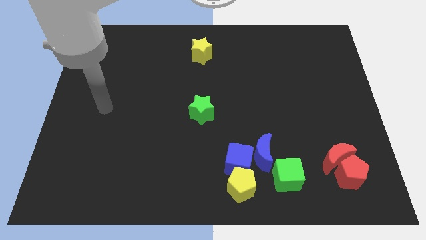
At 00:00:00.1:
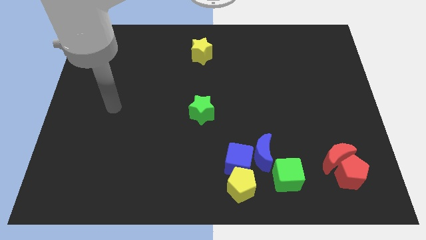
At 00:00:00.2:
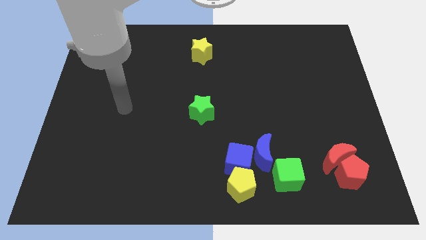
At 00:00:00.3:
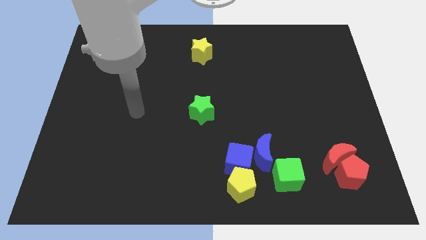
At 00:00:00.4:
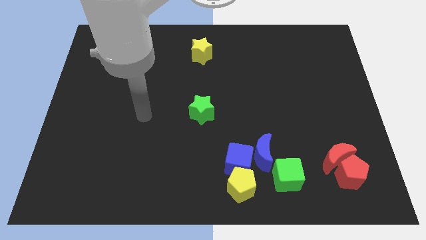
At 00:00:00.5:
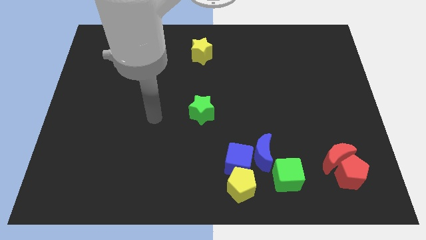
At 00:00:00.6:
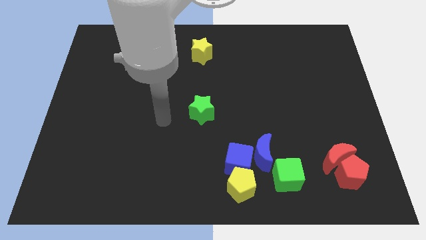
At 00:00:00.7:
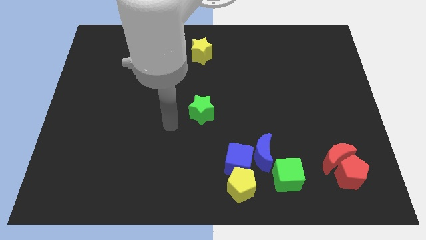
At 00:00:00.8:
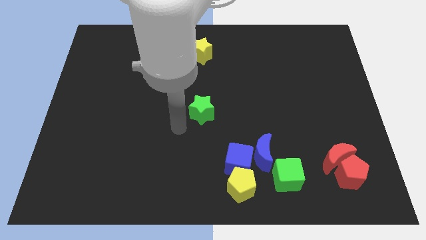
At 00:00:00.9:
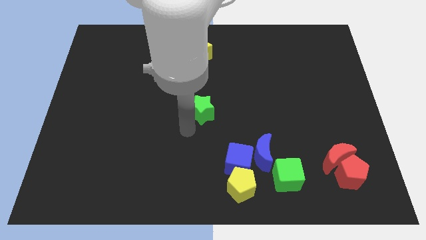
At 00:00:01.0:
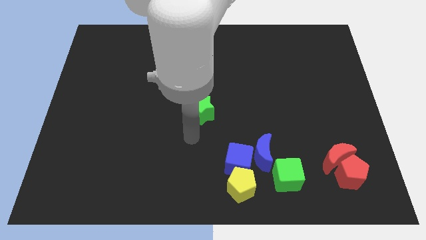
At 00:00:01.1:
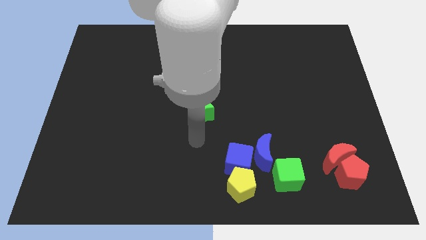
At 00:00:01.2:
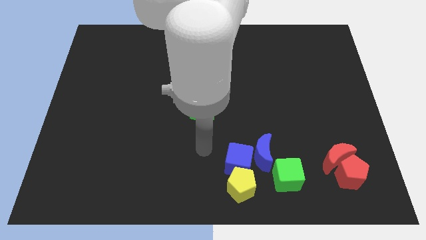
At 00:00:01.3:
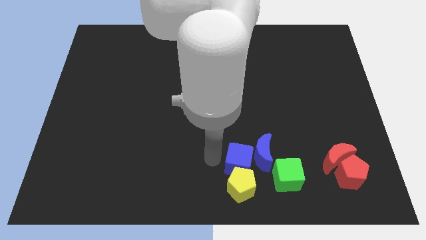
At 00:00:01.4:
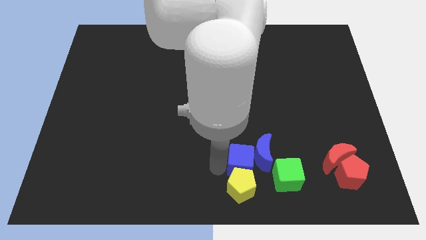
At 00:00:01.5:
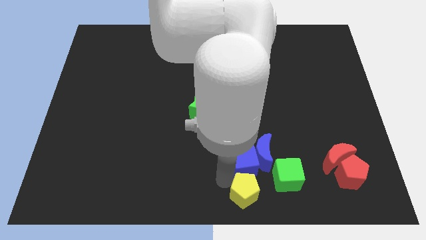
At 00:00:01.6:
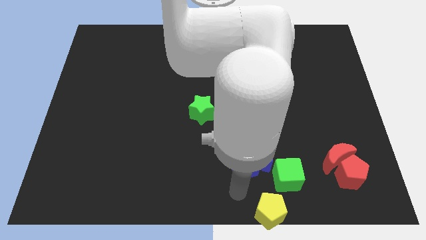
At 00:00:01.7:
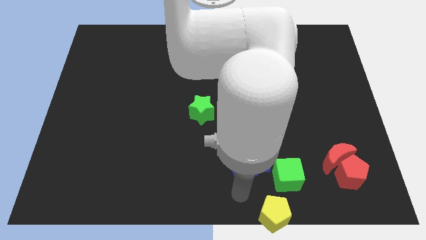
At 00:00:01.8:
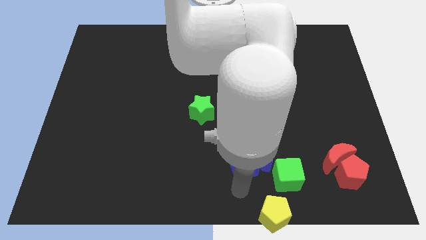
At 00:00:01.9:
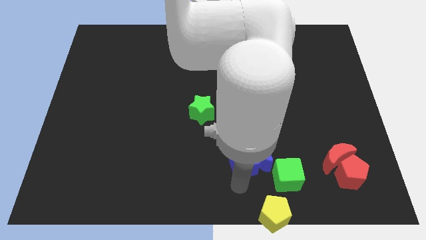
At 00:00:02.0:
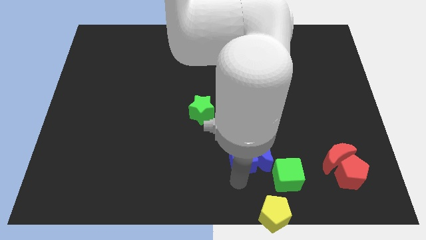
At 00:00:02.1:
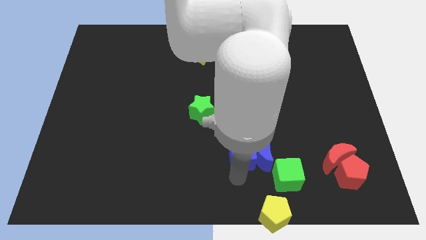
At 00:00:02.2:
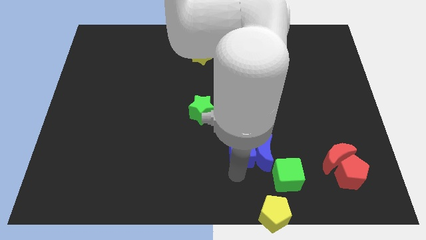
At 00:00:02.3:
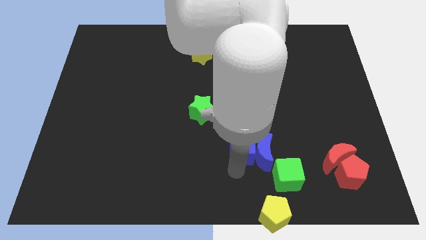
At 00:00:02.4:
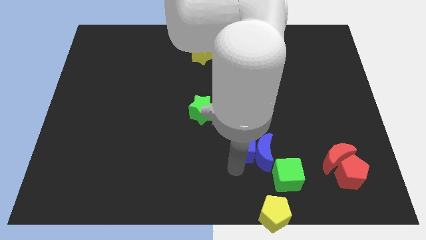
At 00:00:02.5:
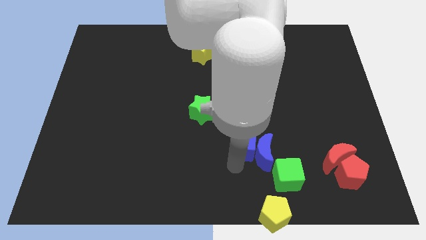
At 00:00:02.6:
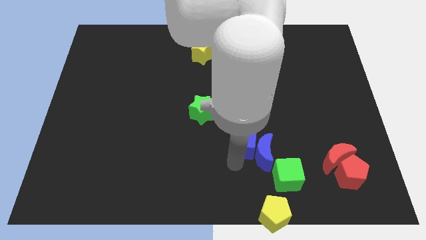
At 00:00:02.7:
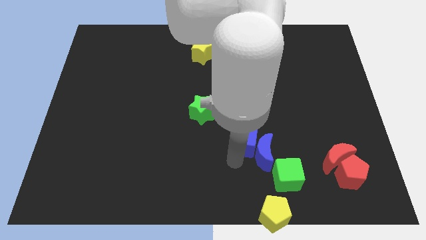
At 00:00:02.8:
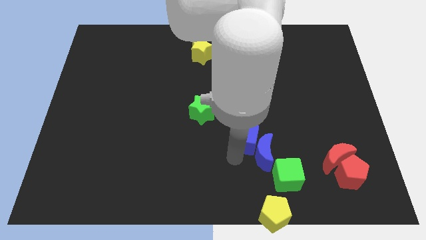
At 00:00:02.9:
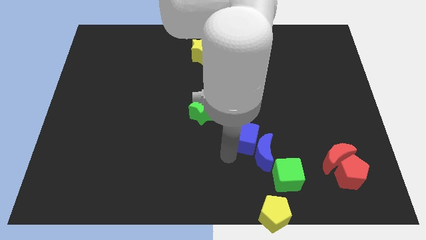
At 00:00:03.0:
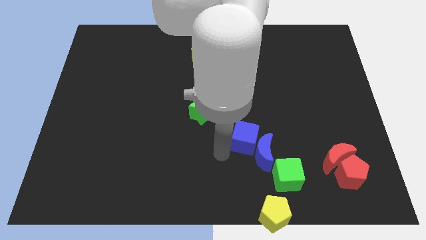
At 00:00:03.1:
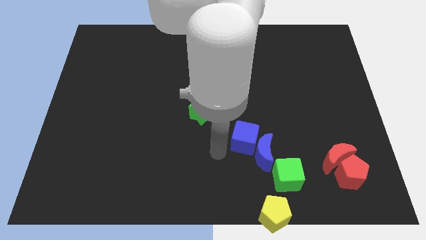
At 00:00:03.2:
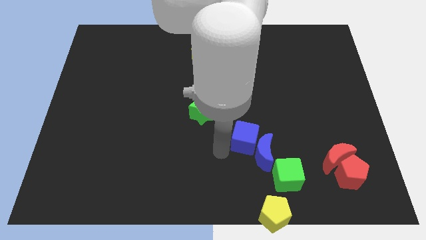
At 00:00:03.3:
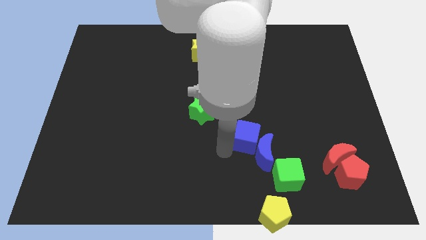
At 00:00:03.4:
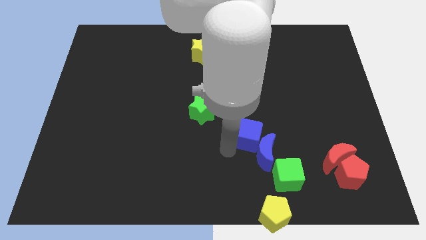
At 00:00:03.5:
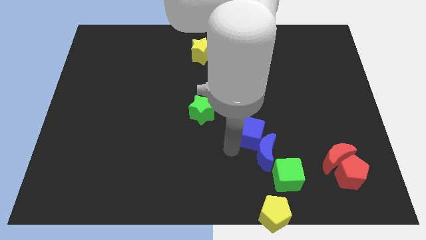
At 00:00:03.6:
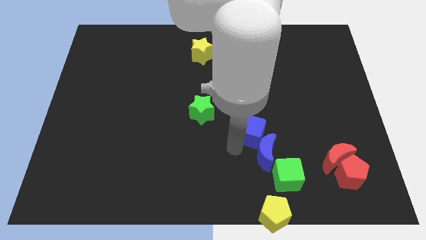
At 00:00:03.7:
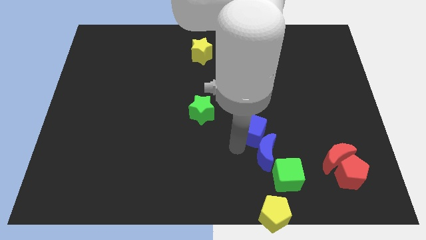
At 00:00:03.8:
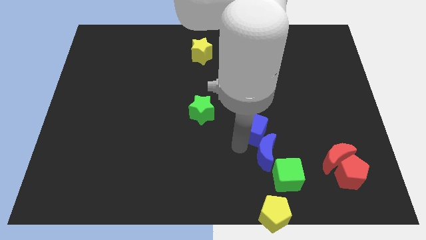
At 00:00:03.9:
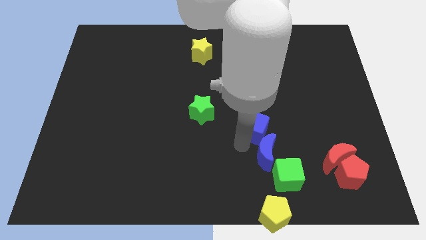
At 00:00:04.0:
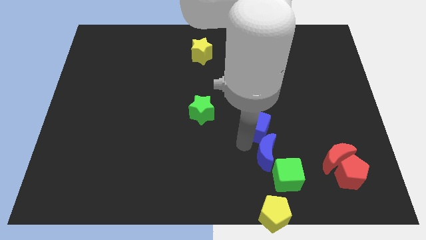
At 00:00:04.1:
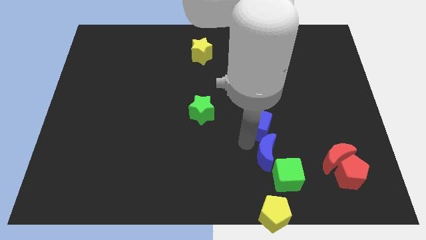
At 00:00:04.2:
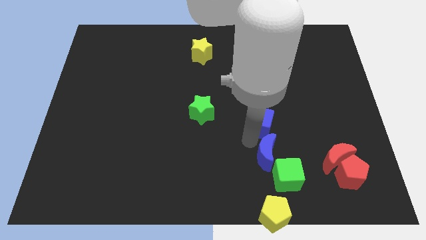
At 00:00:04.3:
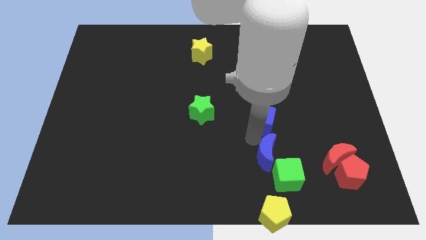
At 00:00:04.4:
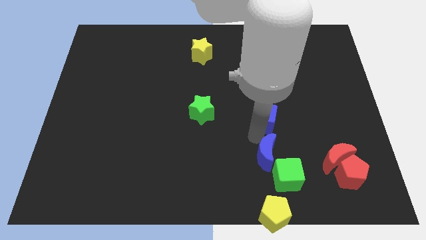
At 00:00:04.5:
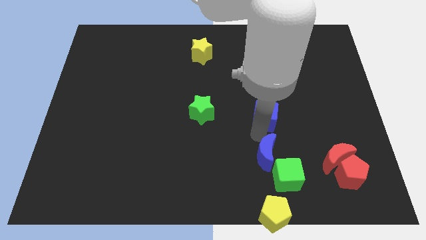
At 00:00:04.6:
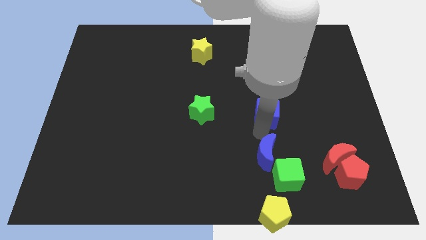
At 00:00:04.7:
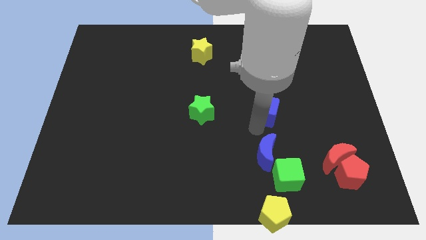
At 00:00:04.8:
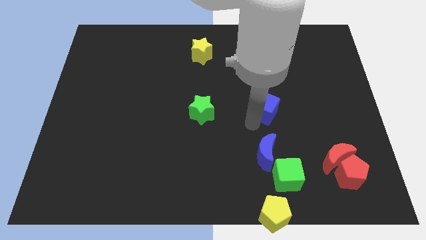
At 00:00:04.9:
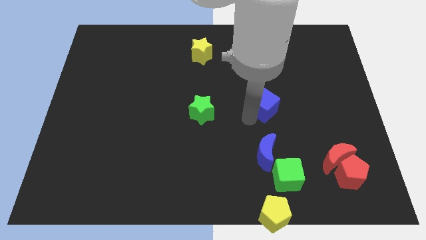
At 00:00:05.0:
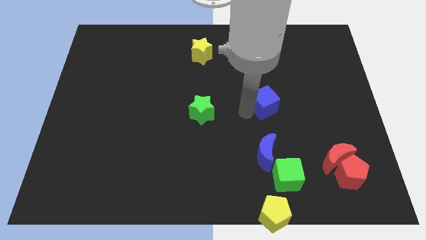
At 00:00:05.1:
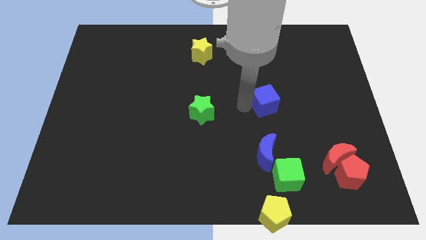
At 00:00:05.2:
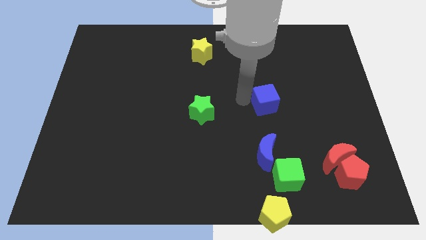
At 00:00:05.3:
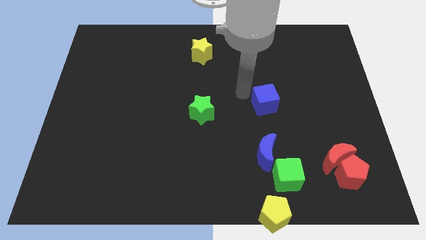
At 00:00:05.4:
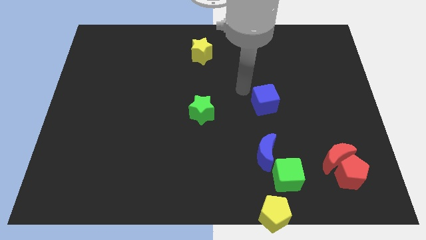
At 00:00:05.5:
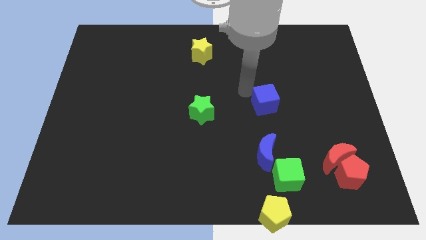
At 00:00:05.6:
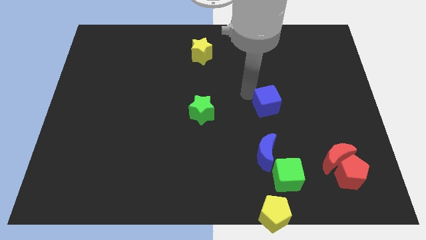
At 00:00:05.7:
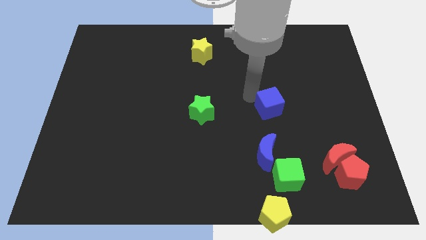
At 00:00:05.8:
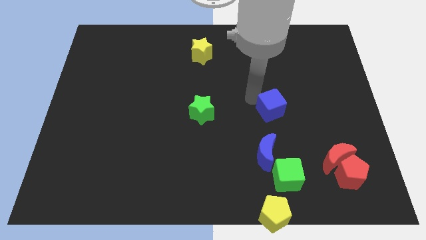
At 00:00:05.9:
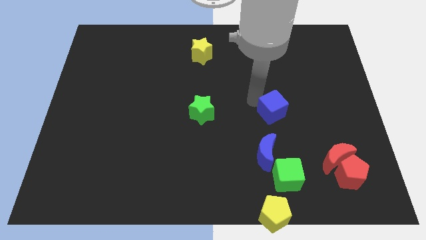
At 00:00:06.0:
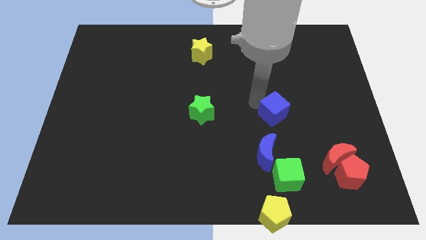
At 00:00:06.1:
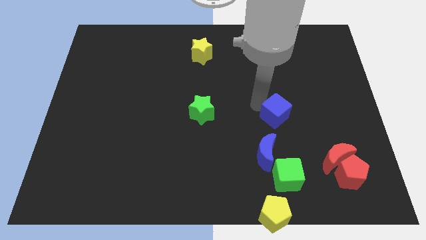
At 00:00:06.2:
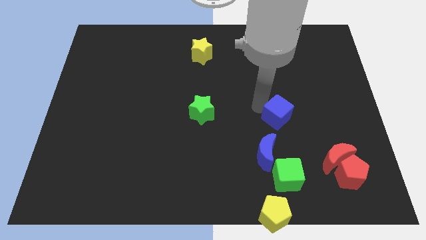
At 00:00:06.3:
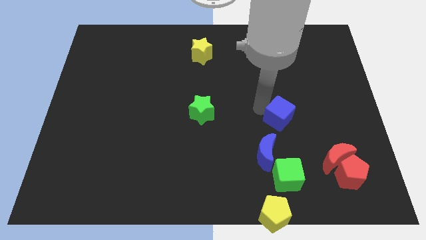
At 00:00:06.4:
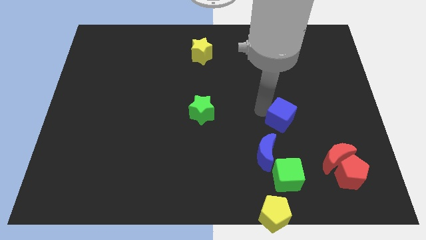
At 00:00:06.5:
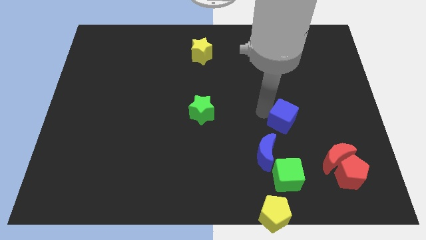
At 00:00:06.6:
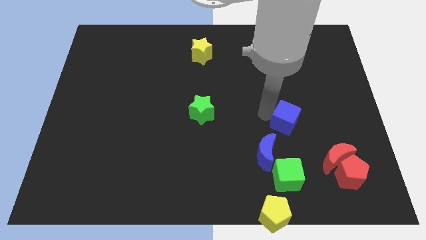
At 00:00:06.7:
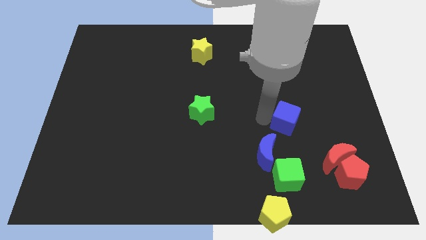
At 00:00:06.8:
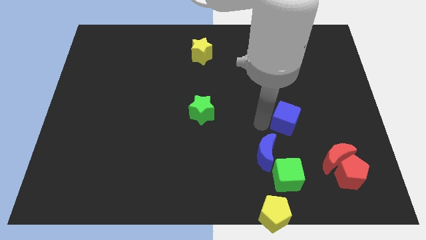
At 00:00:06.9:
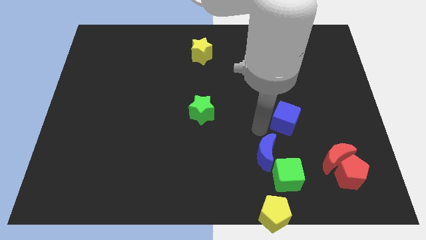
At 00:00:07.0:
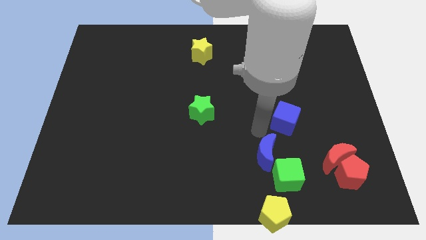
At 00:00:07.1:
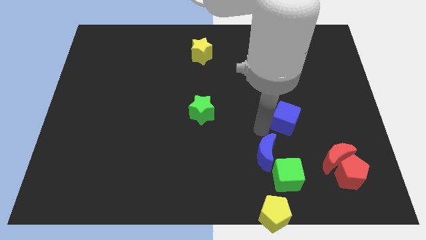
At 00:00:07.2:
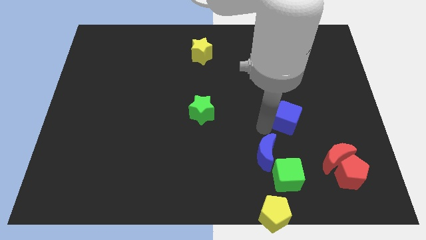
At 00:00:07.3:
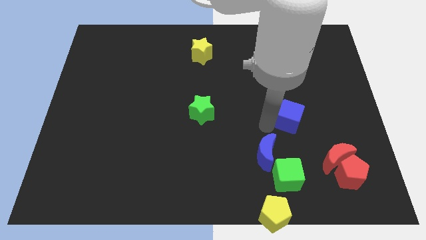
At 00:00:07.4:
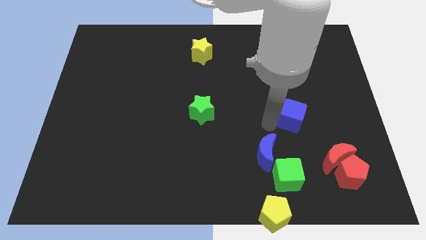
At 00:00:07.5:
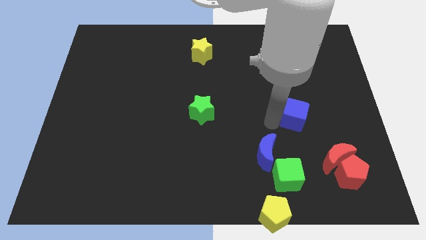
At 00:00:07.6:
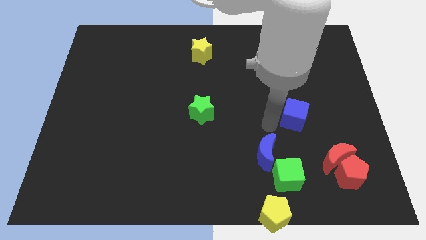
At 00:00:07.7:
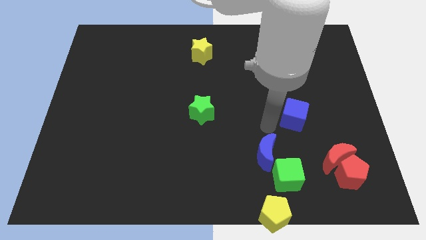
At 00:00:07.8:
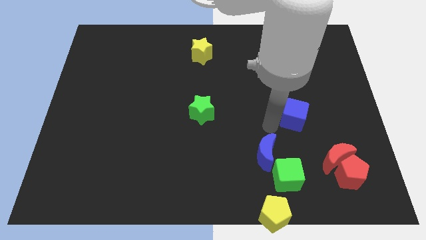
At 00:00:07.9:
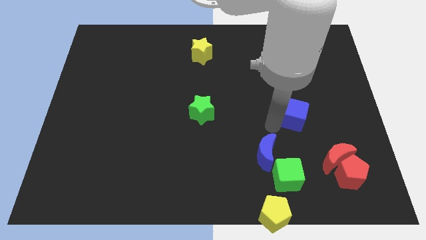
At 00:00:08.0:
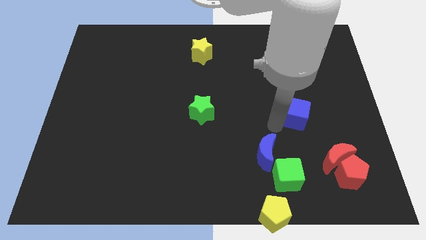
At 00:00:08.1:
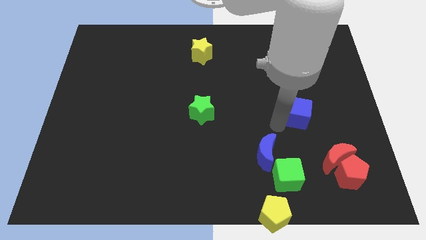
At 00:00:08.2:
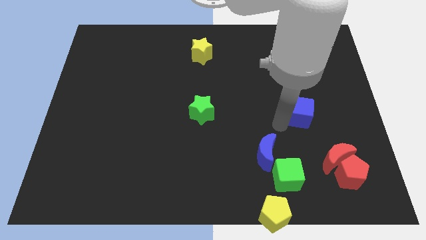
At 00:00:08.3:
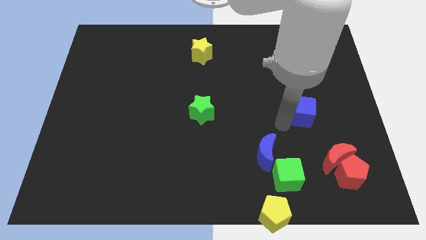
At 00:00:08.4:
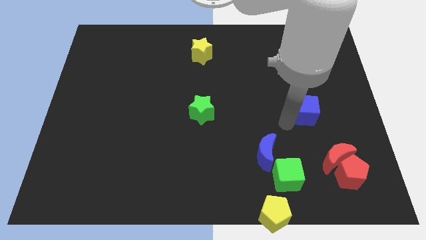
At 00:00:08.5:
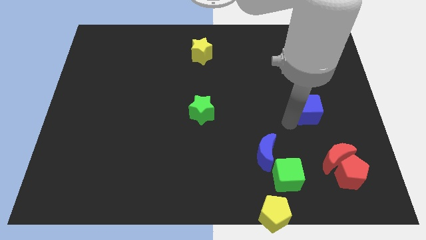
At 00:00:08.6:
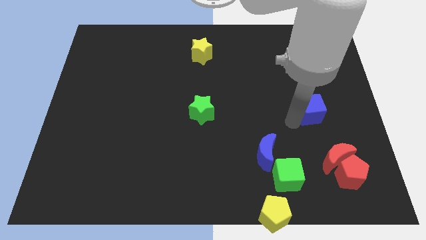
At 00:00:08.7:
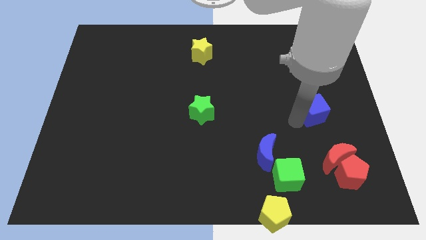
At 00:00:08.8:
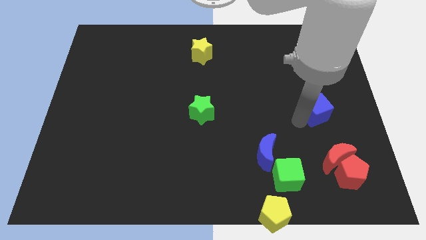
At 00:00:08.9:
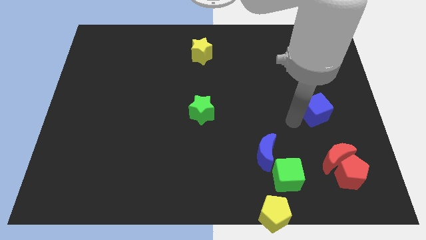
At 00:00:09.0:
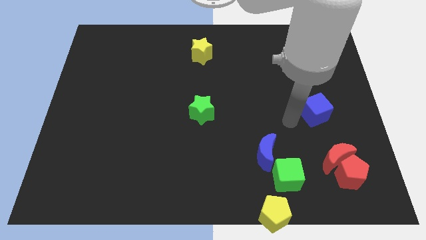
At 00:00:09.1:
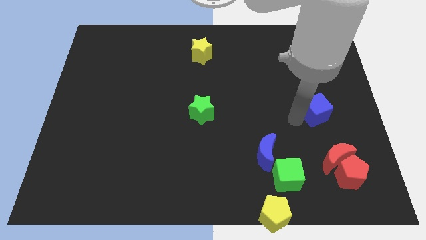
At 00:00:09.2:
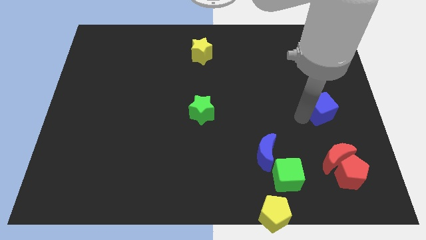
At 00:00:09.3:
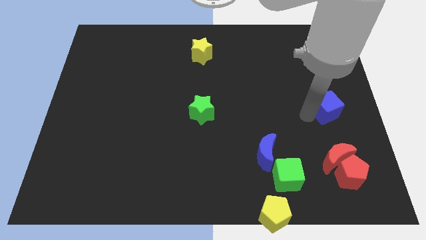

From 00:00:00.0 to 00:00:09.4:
put the blue cube to the right side of the board
